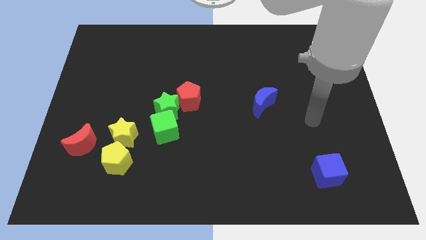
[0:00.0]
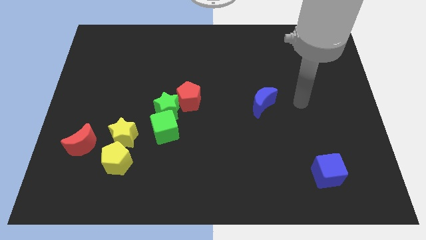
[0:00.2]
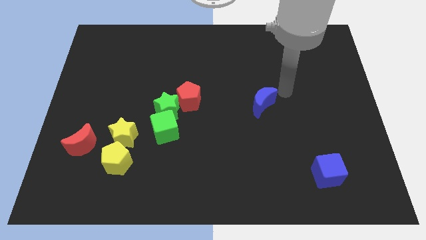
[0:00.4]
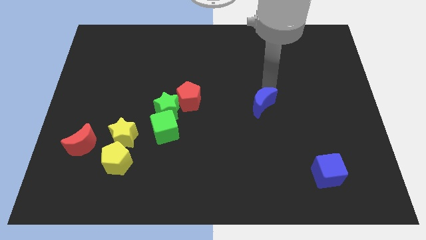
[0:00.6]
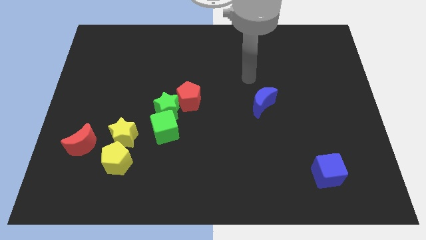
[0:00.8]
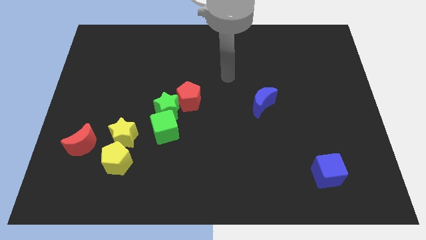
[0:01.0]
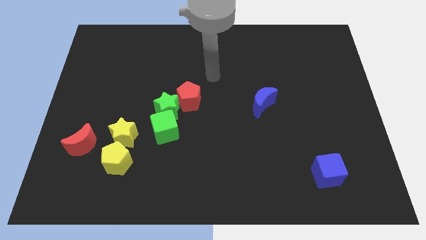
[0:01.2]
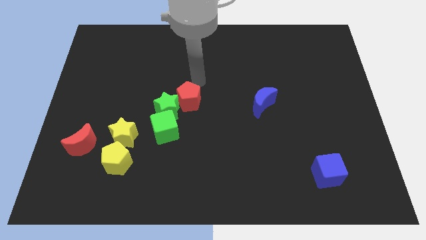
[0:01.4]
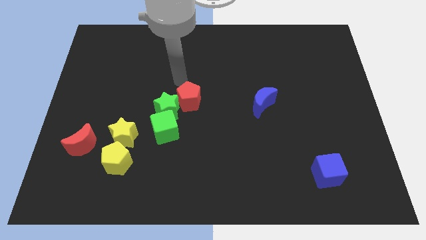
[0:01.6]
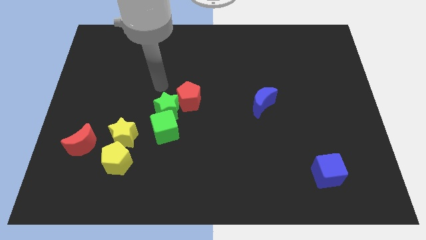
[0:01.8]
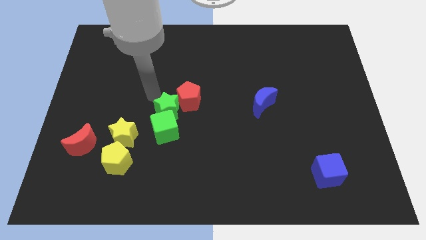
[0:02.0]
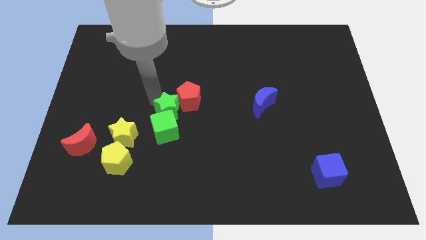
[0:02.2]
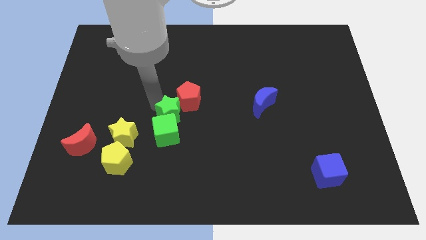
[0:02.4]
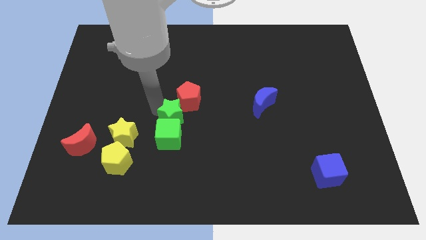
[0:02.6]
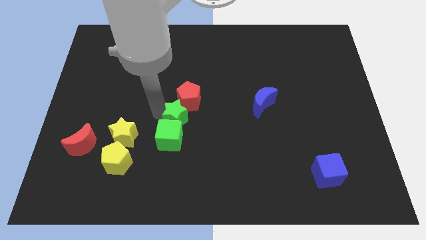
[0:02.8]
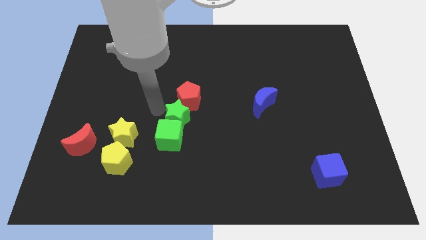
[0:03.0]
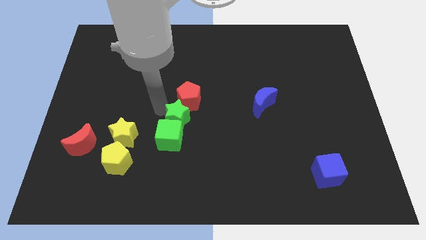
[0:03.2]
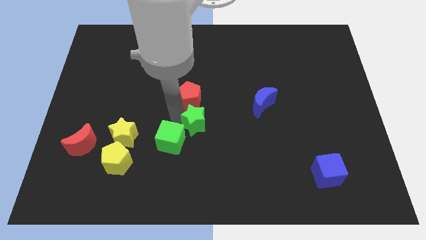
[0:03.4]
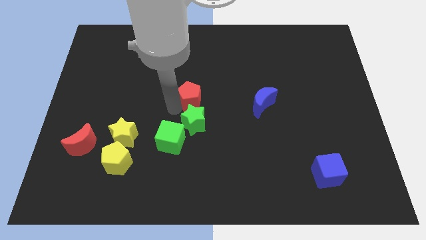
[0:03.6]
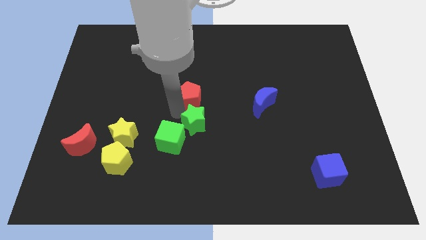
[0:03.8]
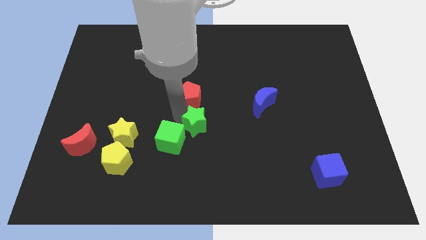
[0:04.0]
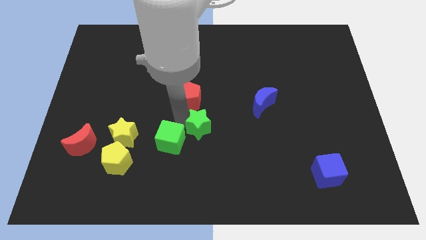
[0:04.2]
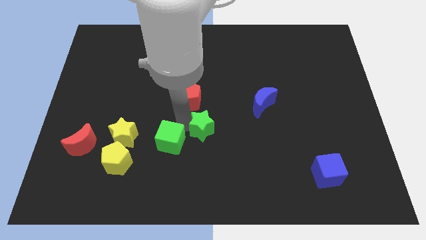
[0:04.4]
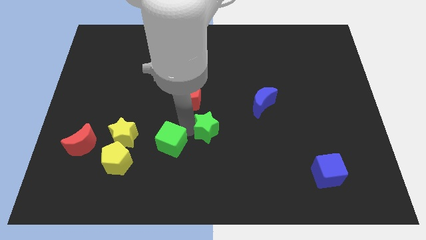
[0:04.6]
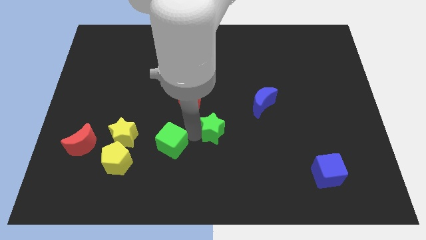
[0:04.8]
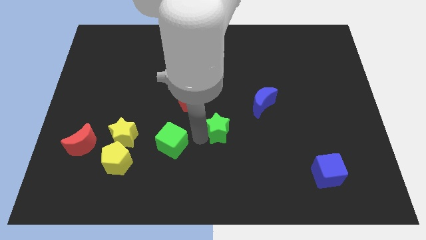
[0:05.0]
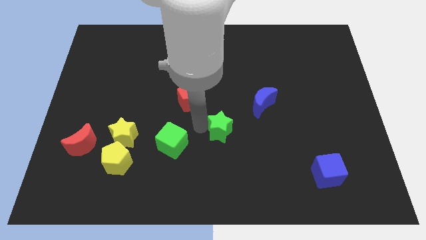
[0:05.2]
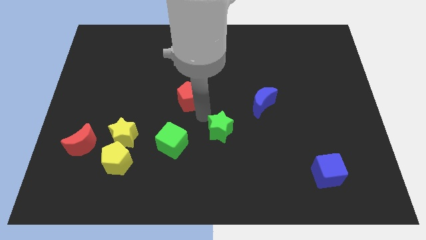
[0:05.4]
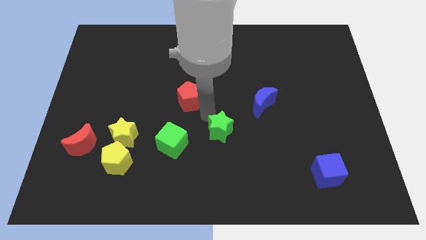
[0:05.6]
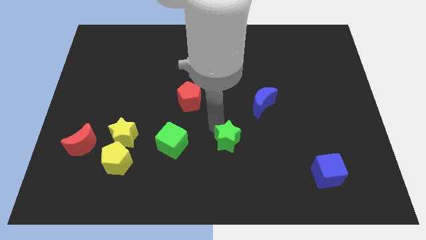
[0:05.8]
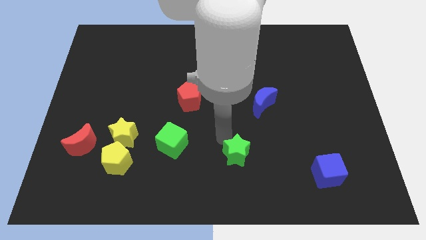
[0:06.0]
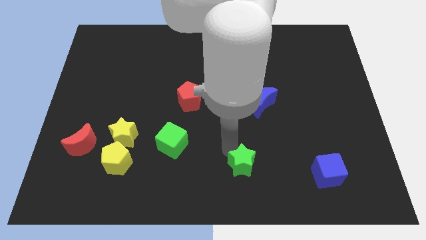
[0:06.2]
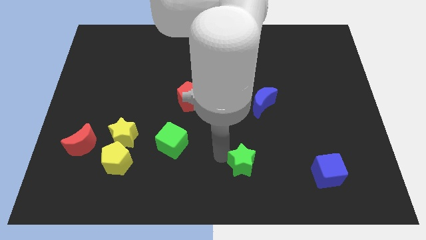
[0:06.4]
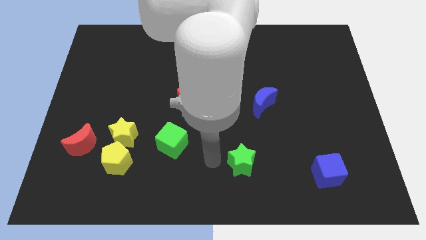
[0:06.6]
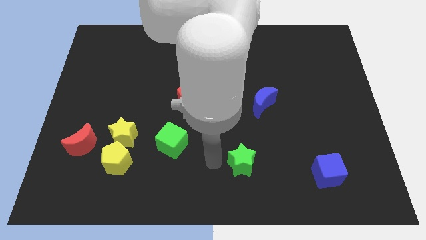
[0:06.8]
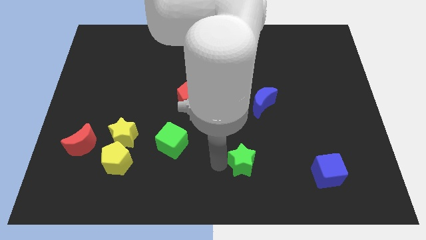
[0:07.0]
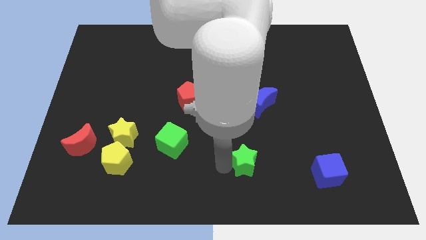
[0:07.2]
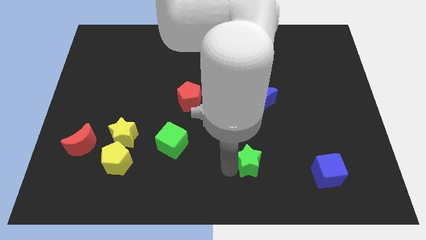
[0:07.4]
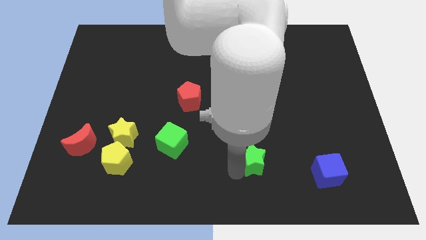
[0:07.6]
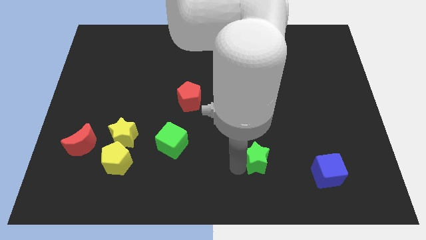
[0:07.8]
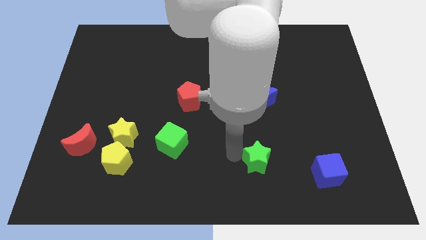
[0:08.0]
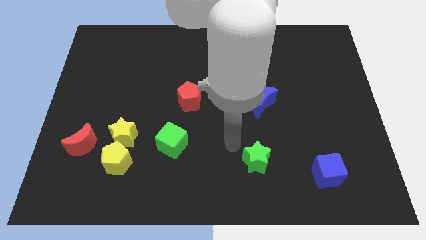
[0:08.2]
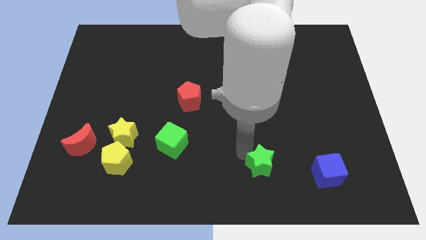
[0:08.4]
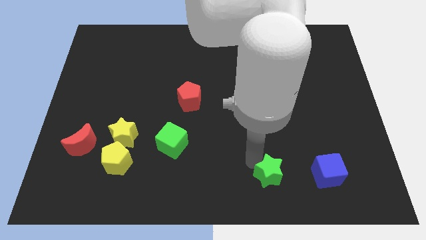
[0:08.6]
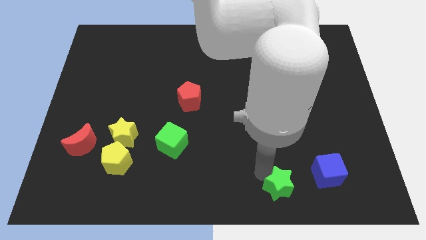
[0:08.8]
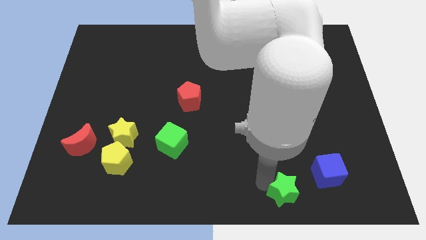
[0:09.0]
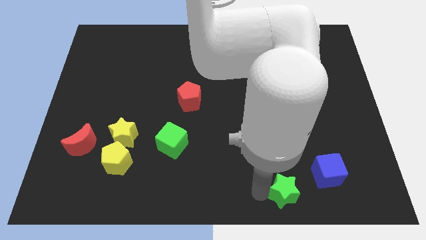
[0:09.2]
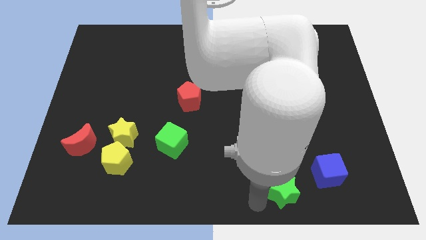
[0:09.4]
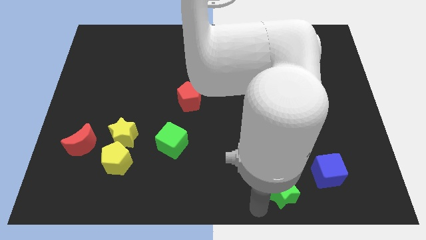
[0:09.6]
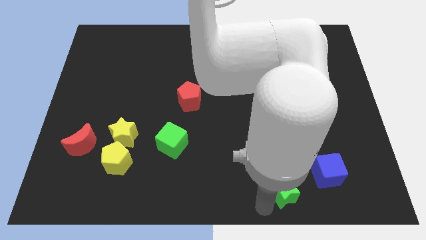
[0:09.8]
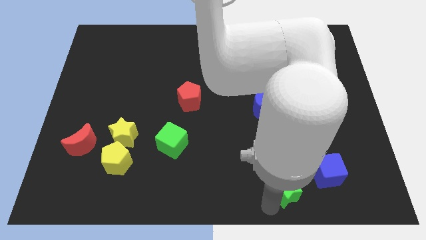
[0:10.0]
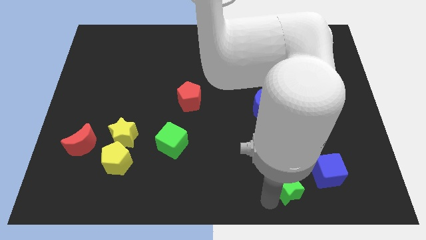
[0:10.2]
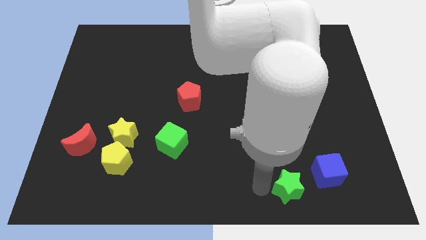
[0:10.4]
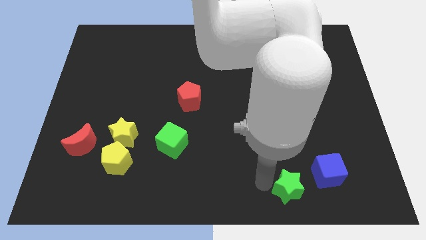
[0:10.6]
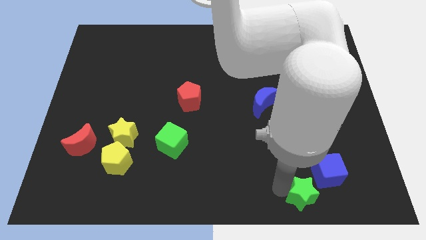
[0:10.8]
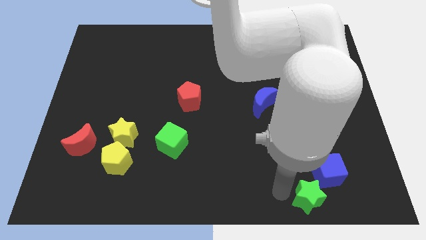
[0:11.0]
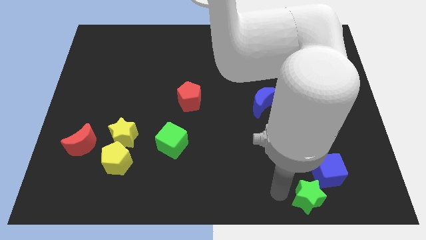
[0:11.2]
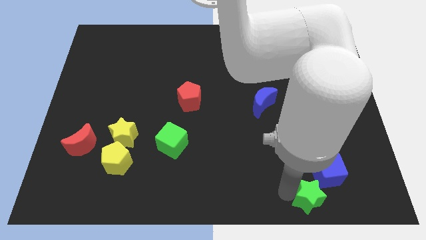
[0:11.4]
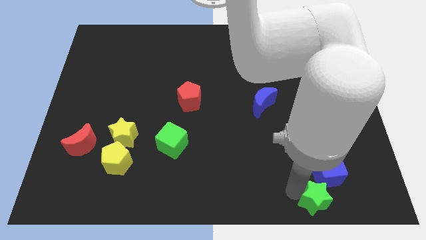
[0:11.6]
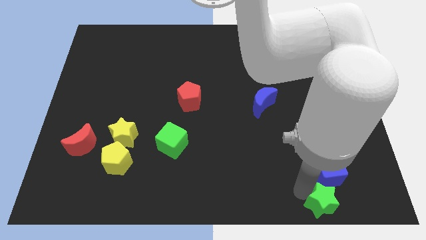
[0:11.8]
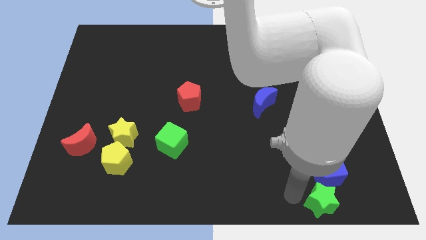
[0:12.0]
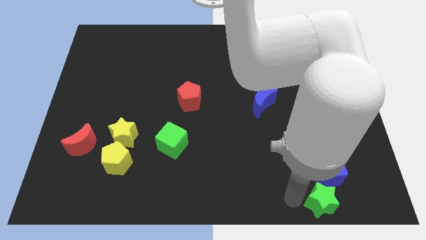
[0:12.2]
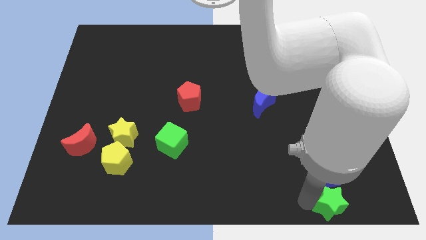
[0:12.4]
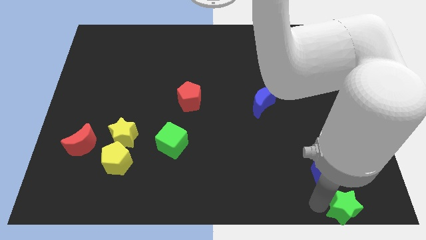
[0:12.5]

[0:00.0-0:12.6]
push the green star to the bottom right
